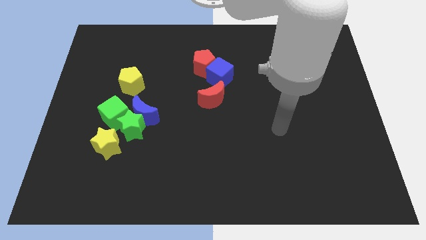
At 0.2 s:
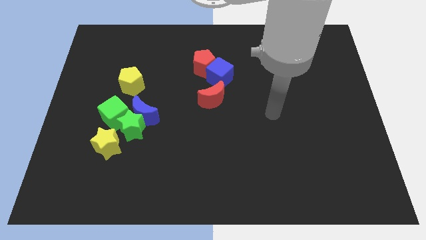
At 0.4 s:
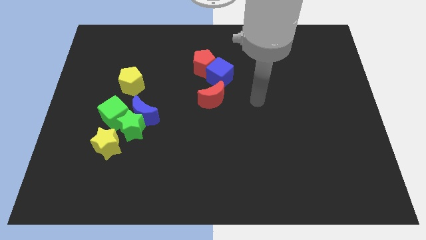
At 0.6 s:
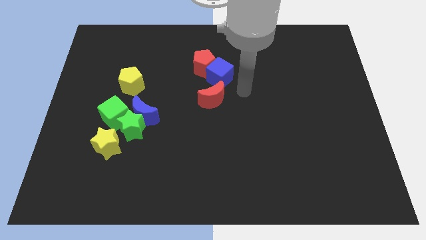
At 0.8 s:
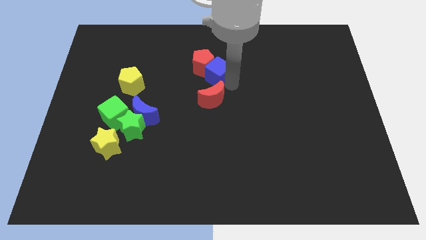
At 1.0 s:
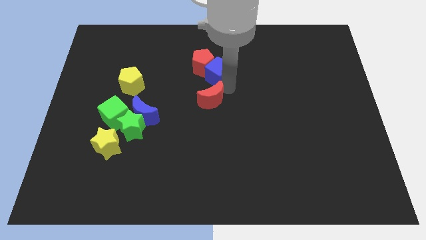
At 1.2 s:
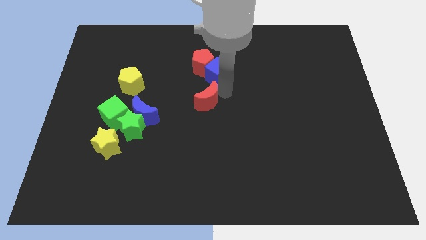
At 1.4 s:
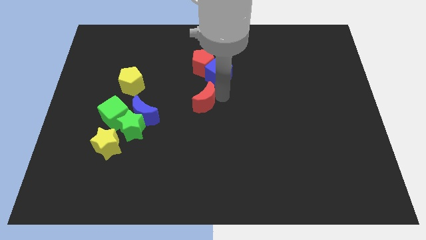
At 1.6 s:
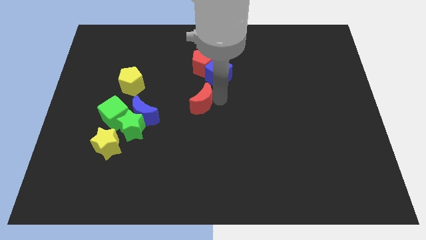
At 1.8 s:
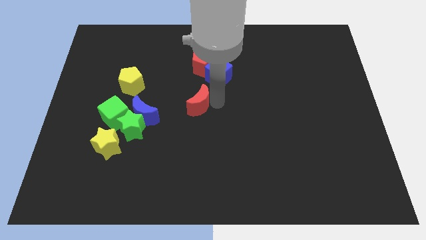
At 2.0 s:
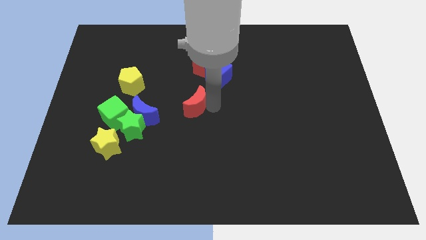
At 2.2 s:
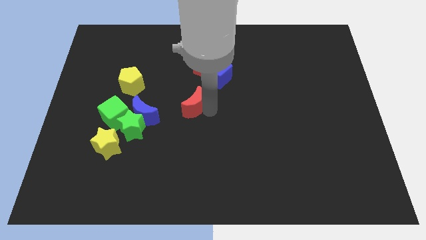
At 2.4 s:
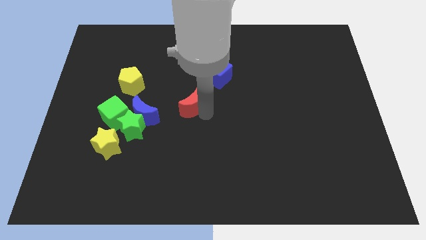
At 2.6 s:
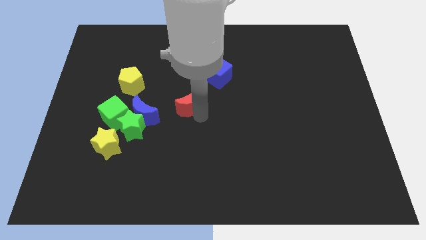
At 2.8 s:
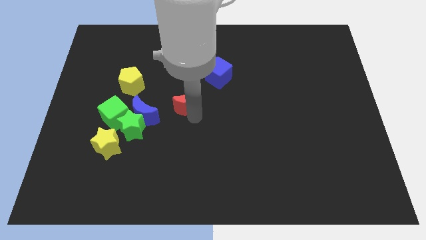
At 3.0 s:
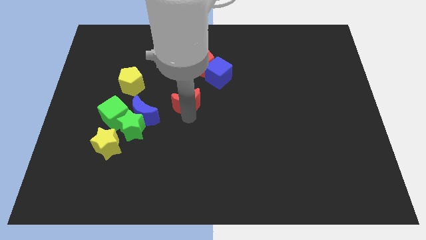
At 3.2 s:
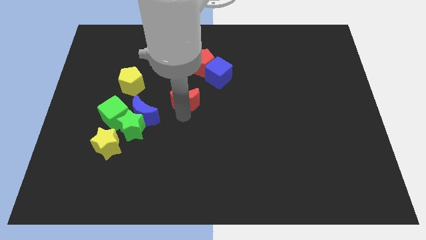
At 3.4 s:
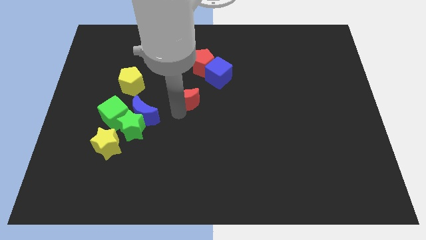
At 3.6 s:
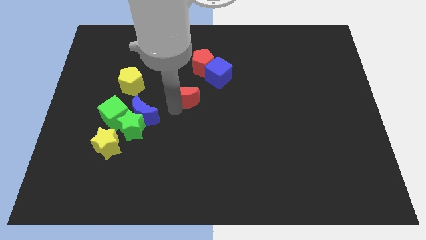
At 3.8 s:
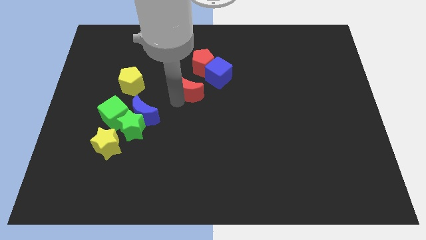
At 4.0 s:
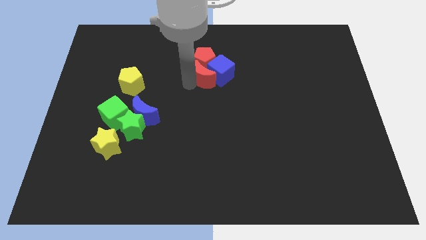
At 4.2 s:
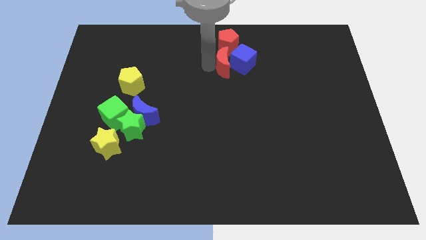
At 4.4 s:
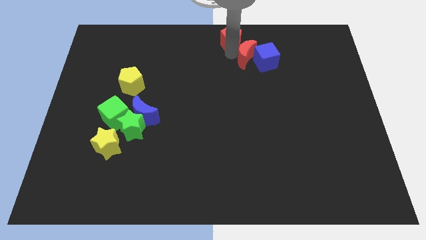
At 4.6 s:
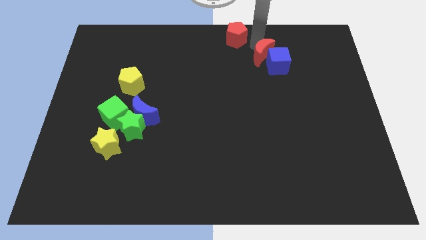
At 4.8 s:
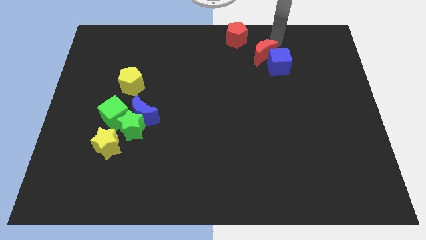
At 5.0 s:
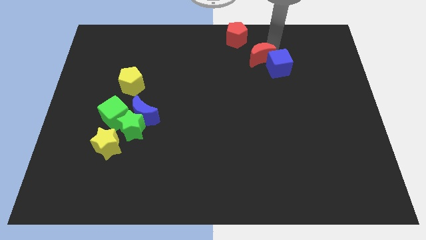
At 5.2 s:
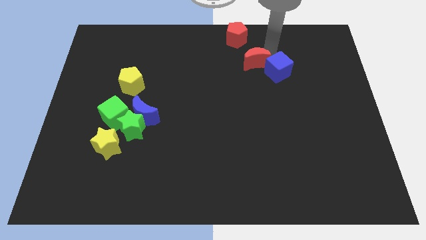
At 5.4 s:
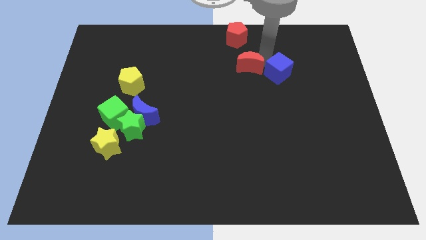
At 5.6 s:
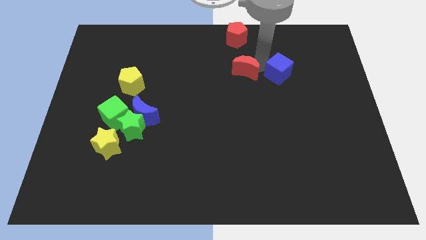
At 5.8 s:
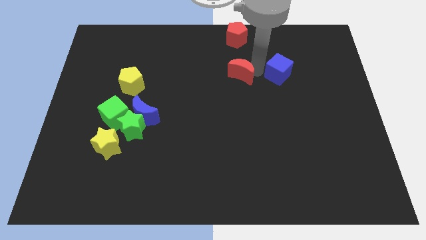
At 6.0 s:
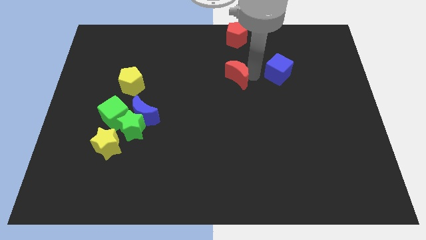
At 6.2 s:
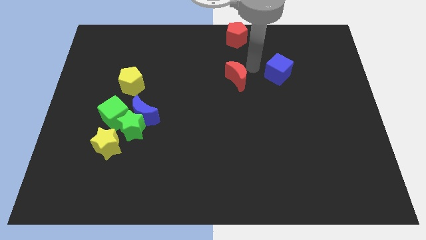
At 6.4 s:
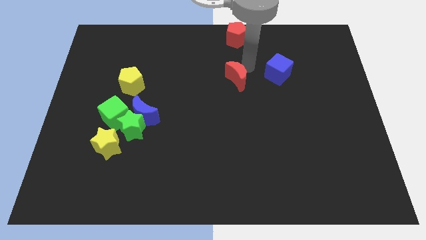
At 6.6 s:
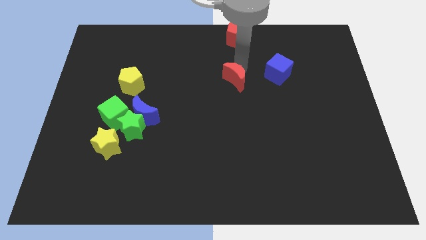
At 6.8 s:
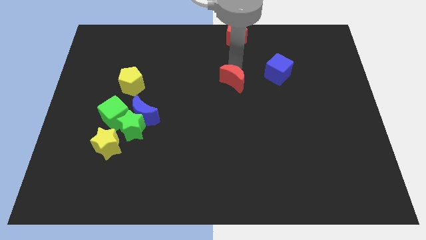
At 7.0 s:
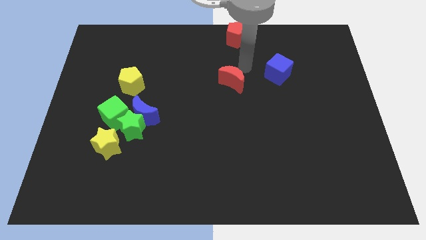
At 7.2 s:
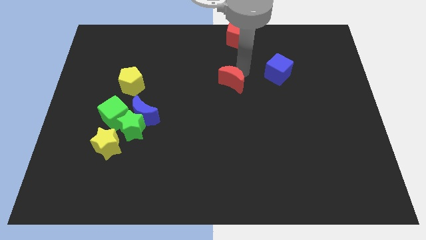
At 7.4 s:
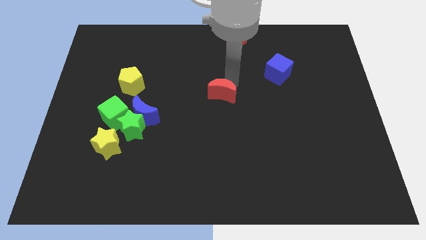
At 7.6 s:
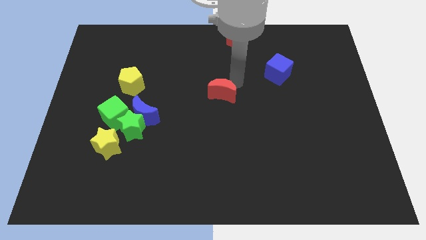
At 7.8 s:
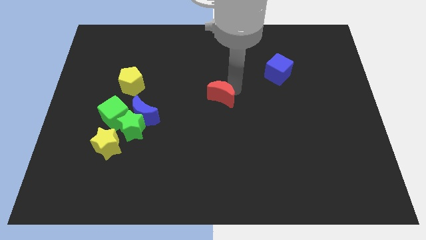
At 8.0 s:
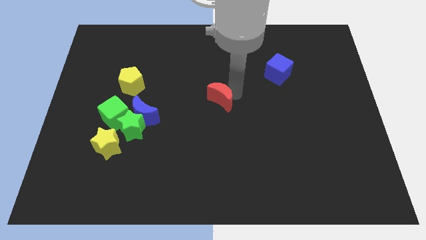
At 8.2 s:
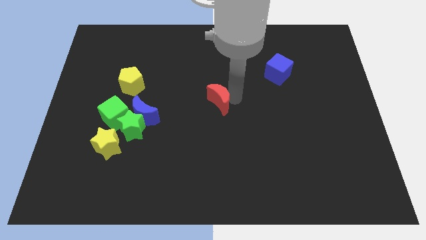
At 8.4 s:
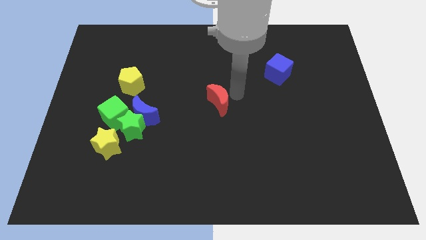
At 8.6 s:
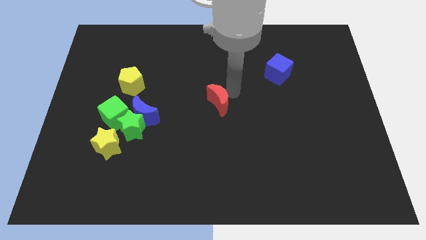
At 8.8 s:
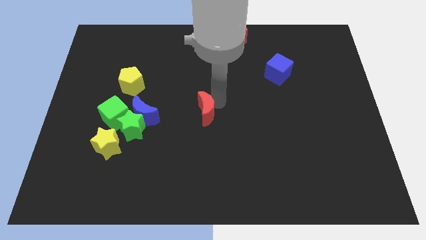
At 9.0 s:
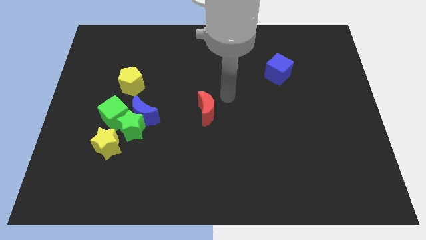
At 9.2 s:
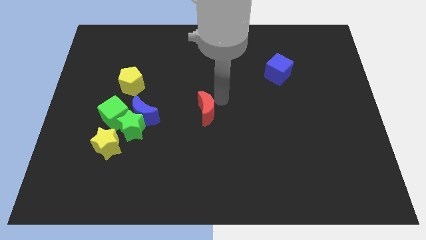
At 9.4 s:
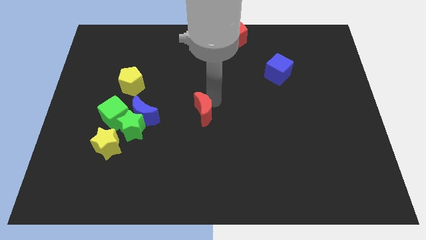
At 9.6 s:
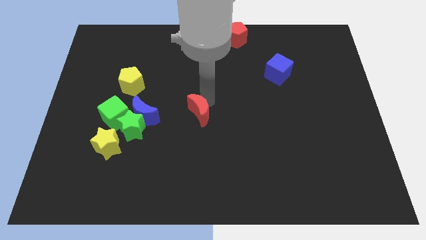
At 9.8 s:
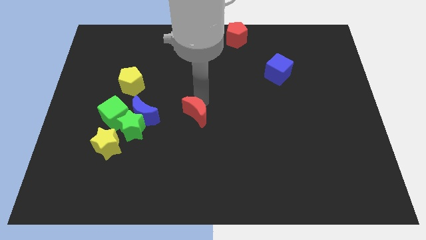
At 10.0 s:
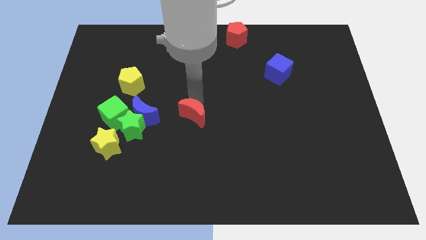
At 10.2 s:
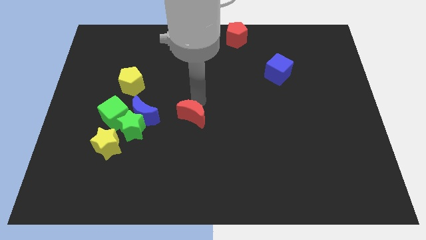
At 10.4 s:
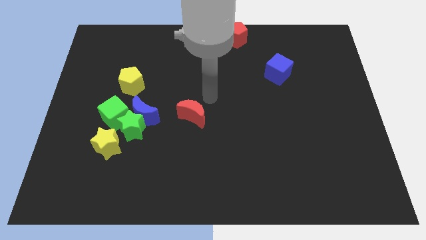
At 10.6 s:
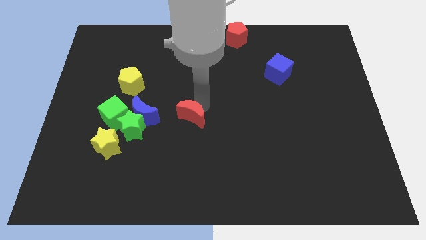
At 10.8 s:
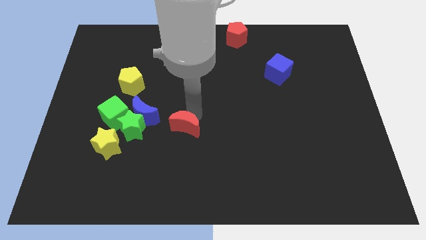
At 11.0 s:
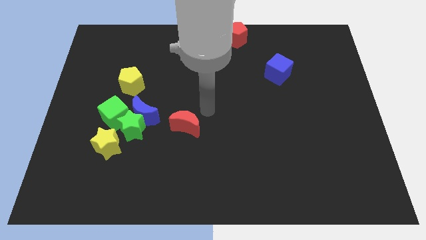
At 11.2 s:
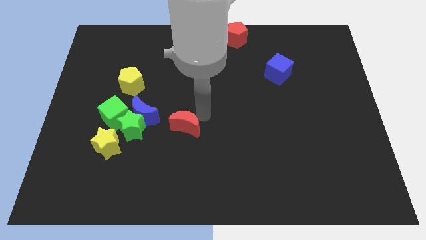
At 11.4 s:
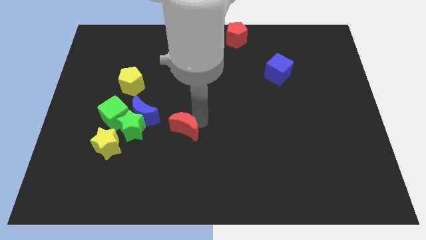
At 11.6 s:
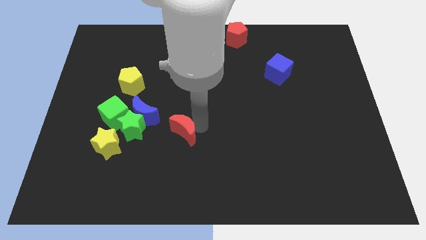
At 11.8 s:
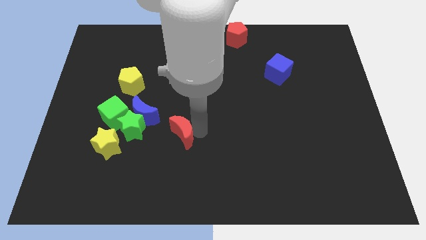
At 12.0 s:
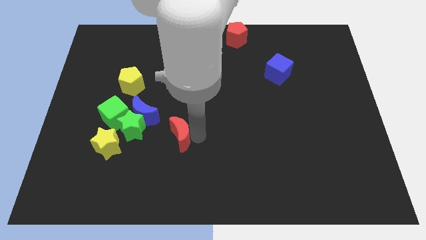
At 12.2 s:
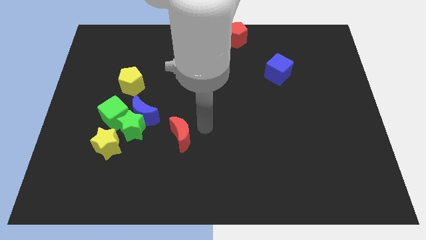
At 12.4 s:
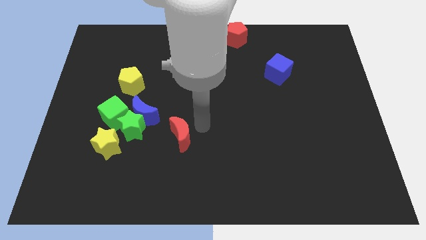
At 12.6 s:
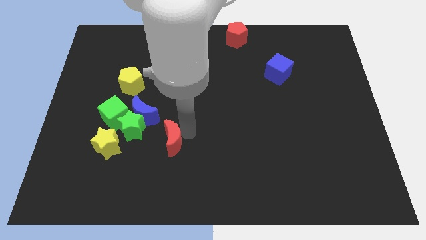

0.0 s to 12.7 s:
move the red moon diagonally down and to the right of the green star

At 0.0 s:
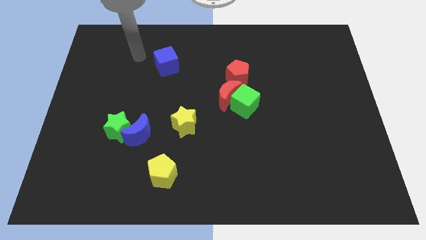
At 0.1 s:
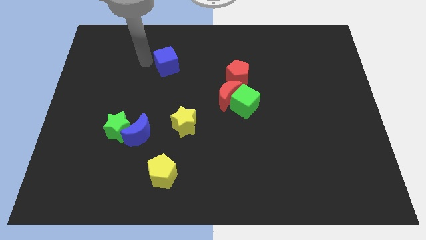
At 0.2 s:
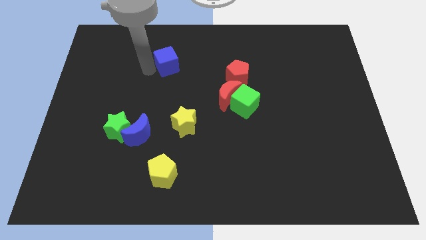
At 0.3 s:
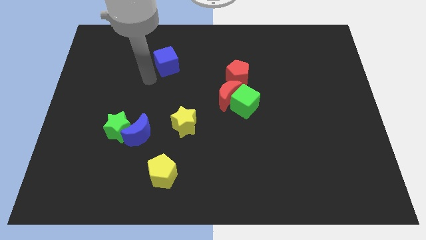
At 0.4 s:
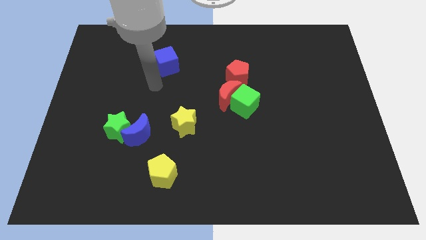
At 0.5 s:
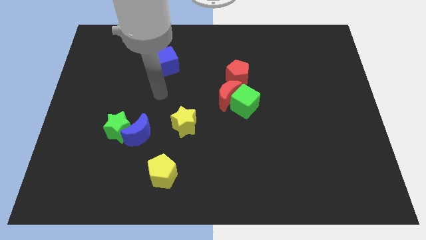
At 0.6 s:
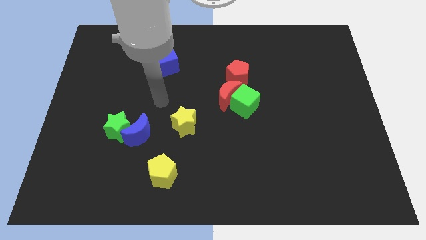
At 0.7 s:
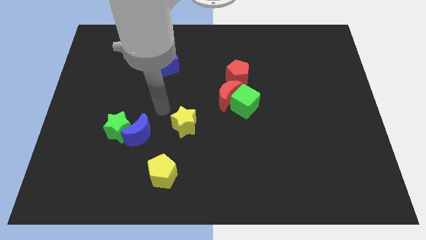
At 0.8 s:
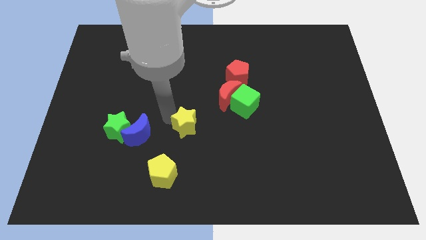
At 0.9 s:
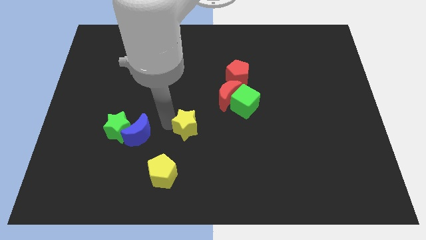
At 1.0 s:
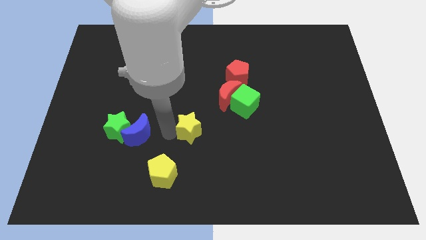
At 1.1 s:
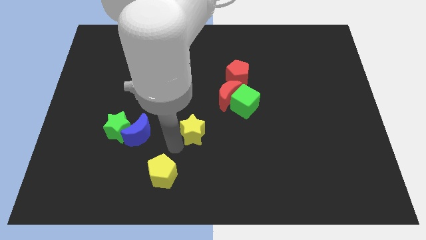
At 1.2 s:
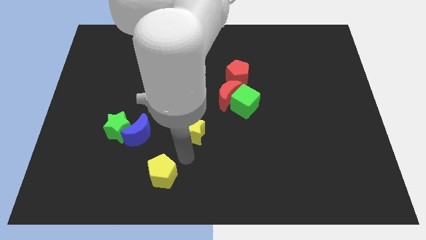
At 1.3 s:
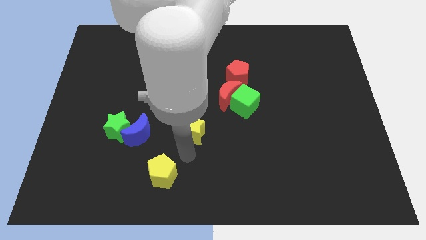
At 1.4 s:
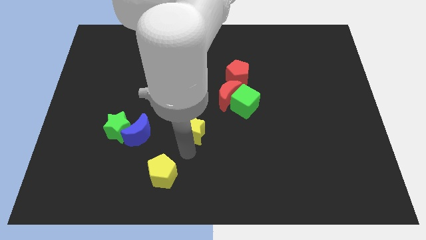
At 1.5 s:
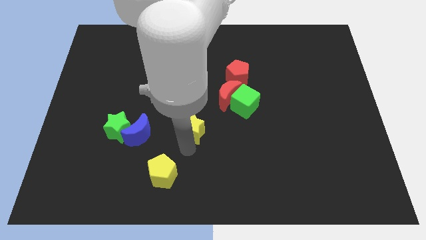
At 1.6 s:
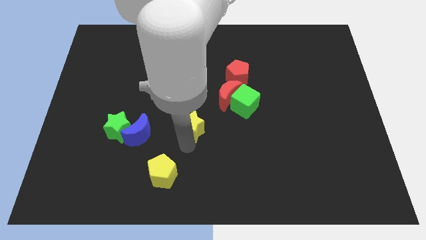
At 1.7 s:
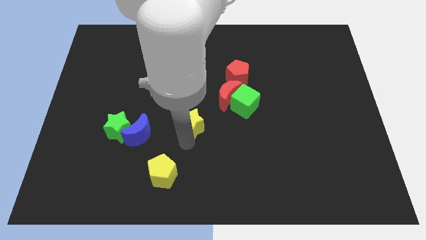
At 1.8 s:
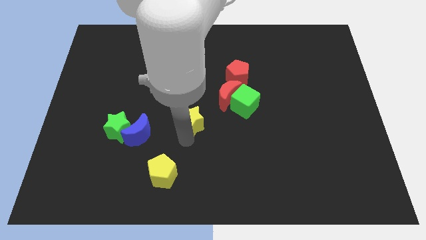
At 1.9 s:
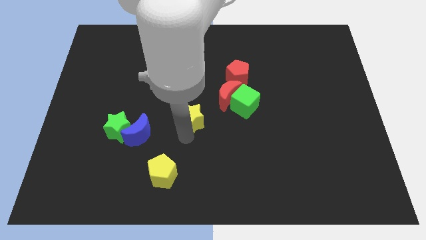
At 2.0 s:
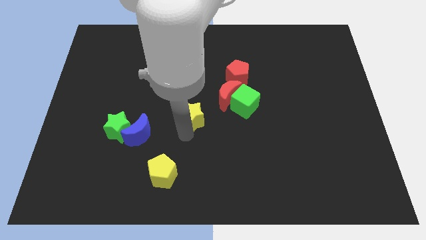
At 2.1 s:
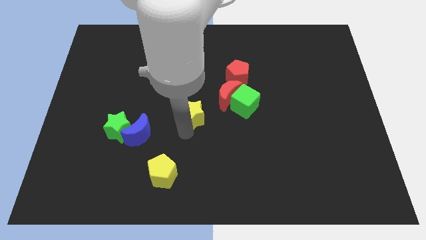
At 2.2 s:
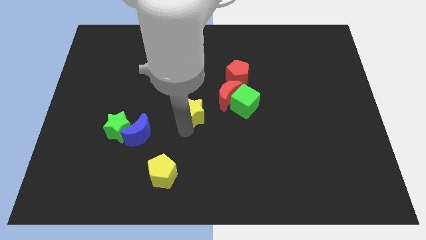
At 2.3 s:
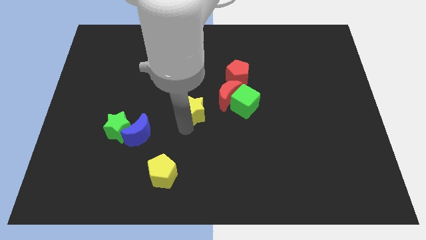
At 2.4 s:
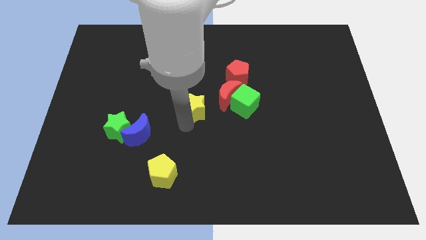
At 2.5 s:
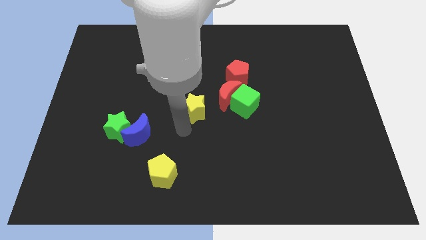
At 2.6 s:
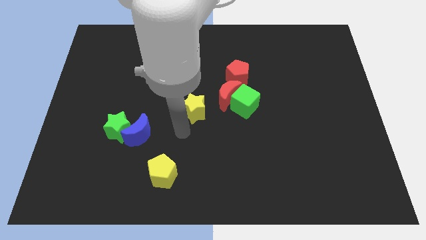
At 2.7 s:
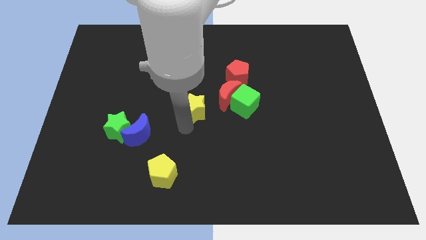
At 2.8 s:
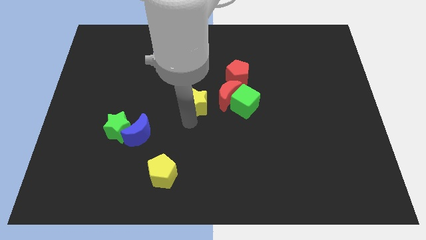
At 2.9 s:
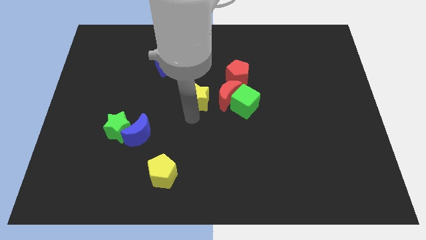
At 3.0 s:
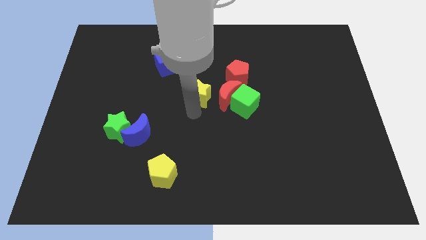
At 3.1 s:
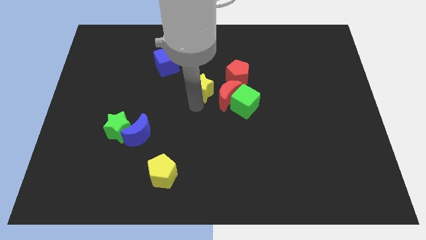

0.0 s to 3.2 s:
slide the yellow star diagonally up and to the left of the green cube
